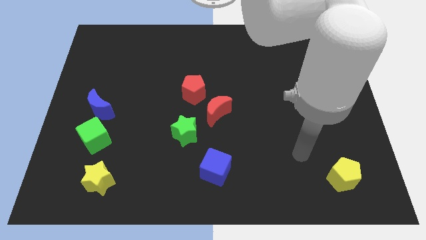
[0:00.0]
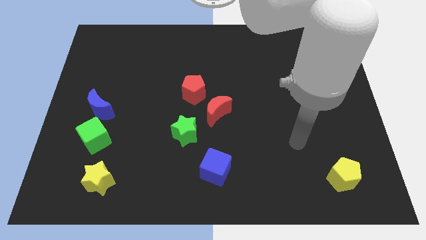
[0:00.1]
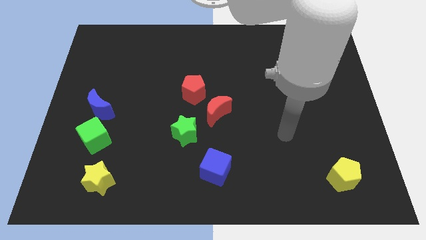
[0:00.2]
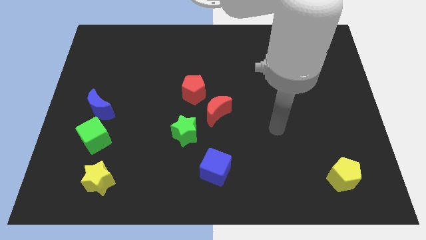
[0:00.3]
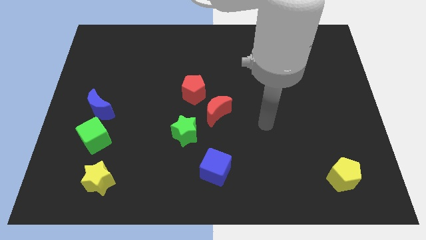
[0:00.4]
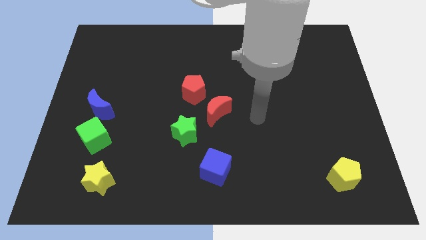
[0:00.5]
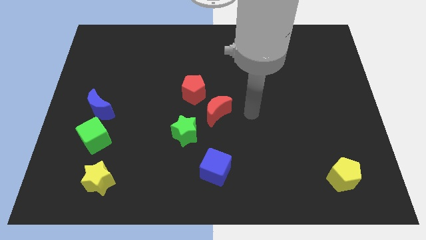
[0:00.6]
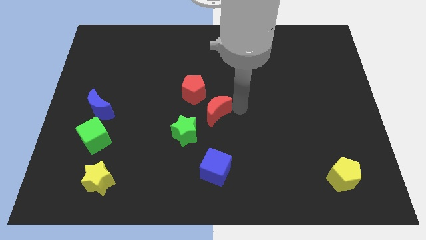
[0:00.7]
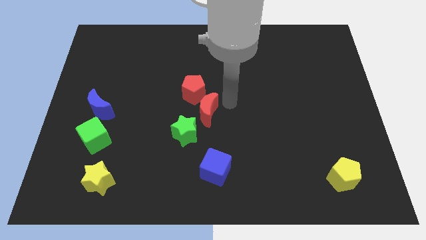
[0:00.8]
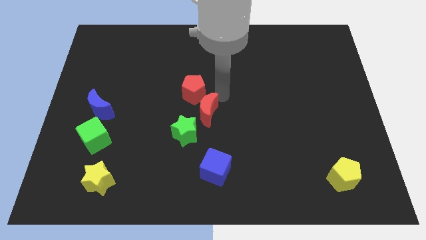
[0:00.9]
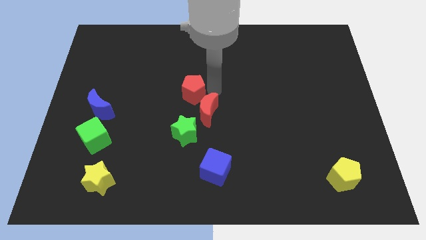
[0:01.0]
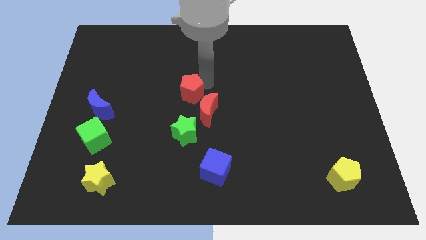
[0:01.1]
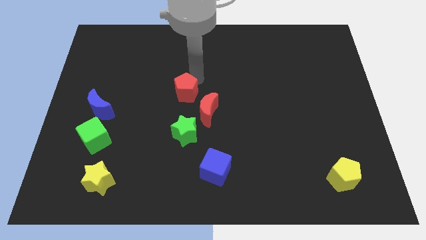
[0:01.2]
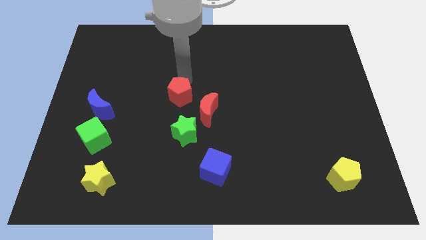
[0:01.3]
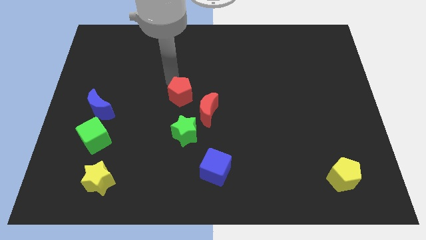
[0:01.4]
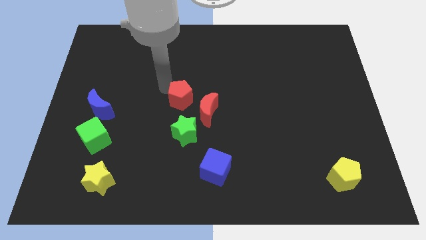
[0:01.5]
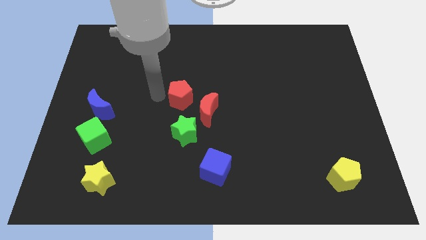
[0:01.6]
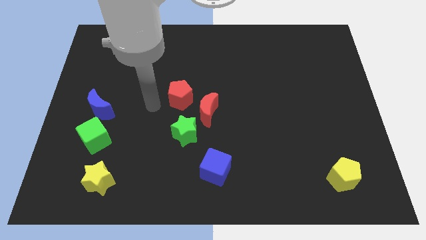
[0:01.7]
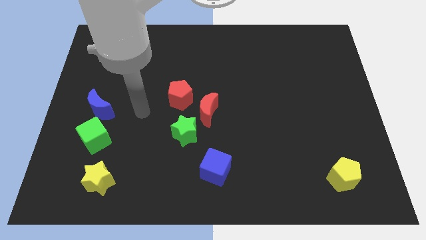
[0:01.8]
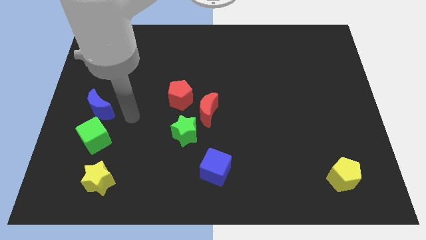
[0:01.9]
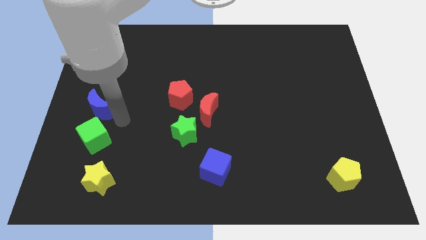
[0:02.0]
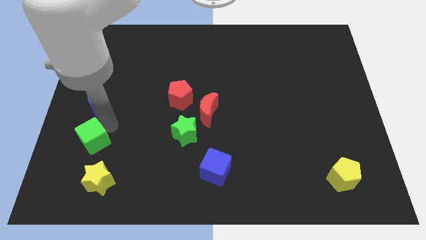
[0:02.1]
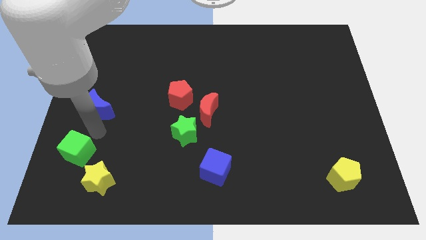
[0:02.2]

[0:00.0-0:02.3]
pull the blue moon apart from the green cube

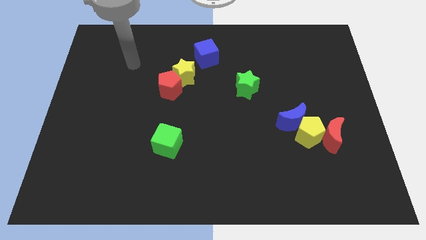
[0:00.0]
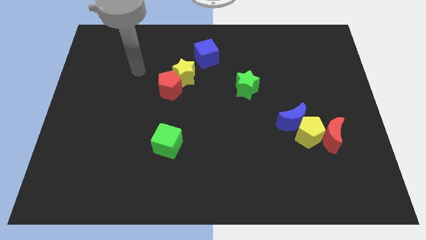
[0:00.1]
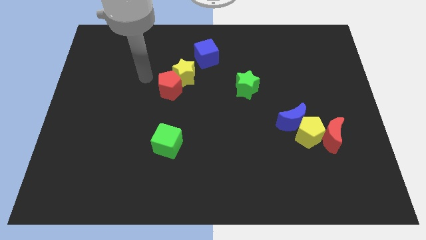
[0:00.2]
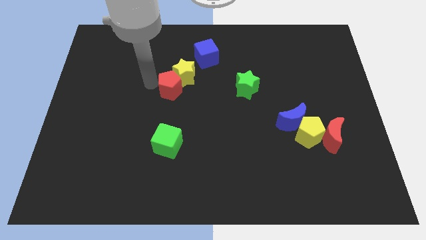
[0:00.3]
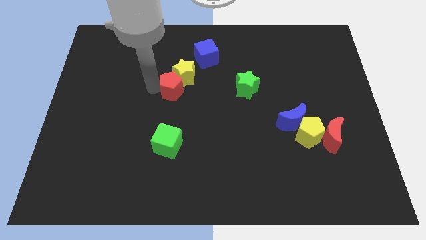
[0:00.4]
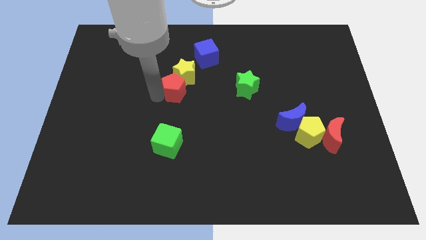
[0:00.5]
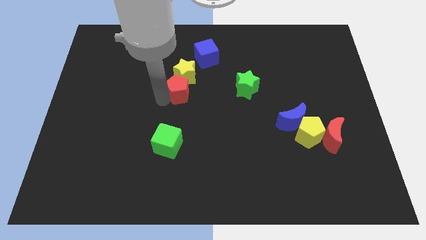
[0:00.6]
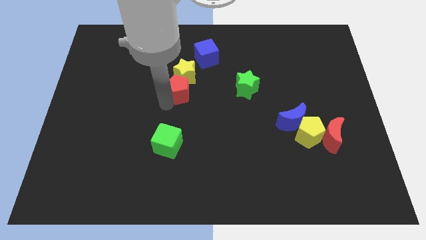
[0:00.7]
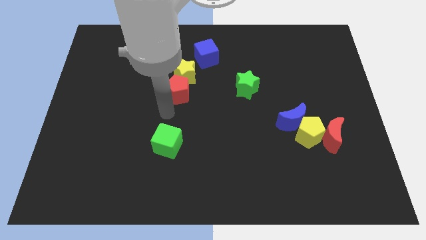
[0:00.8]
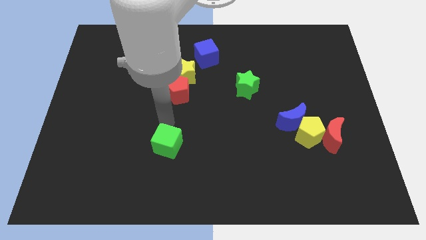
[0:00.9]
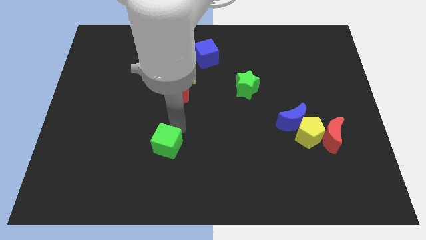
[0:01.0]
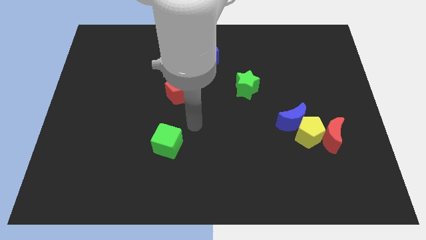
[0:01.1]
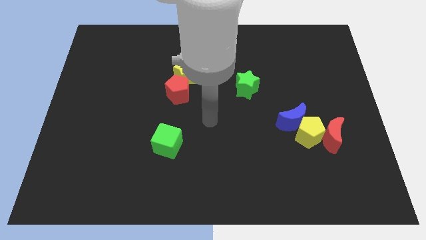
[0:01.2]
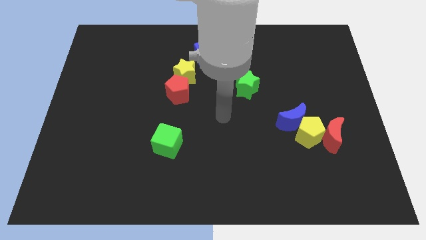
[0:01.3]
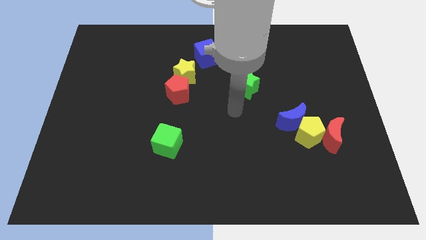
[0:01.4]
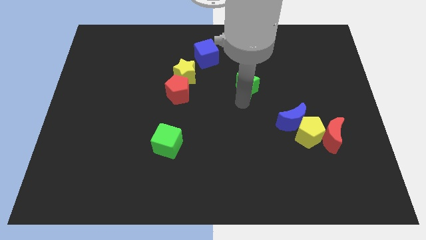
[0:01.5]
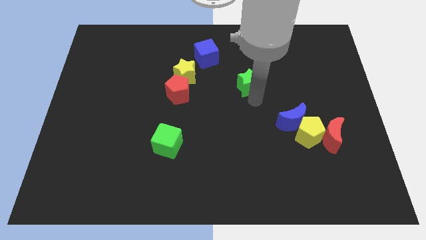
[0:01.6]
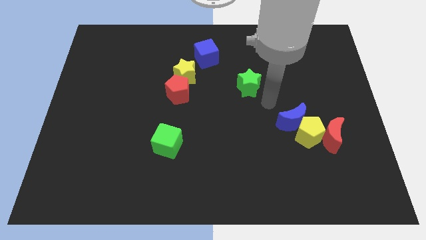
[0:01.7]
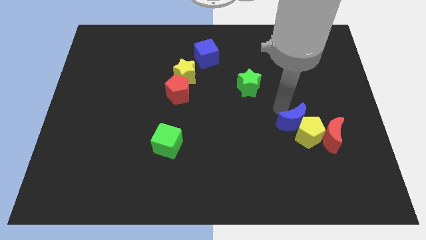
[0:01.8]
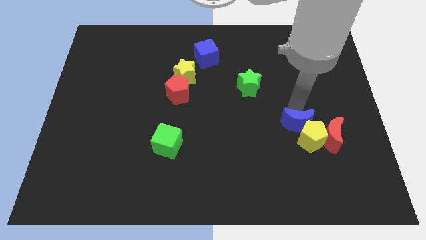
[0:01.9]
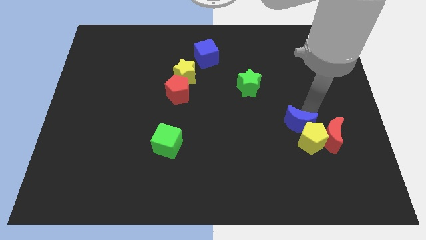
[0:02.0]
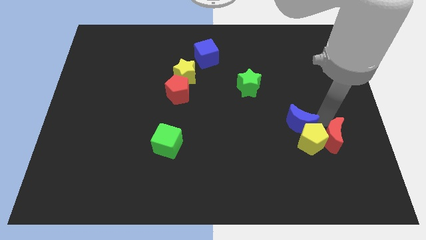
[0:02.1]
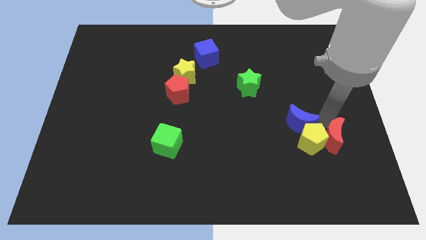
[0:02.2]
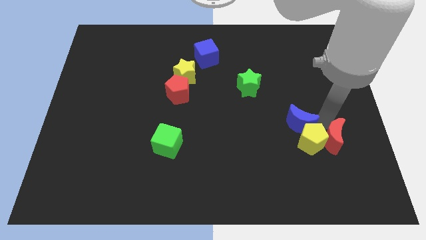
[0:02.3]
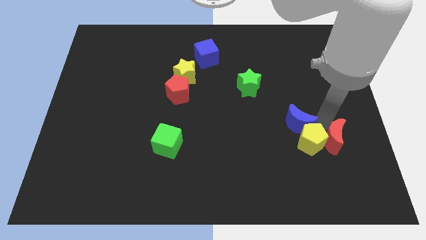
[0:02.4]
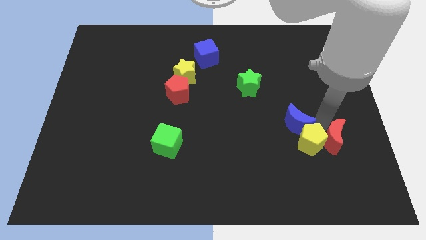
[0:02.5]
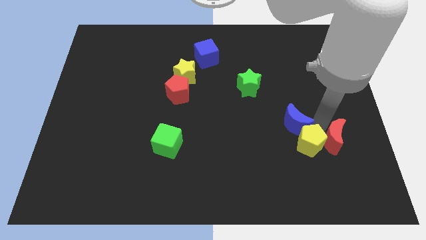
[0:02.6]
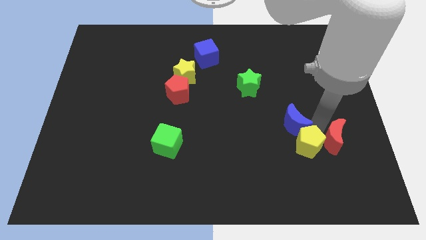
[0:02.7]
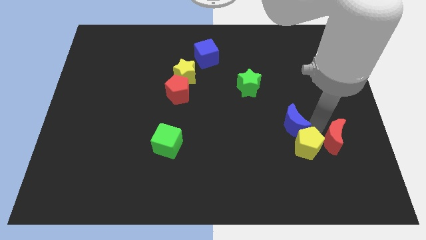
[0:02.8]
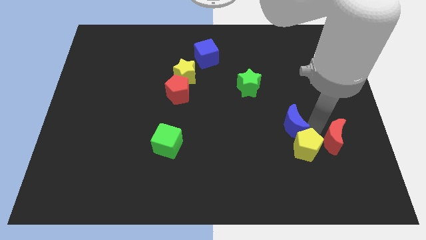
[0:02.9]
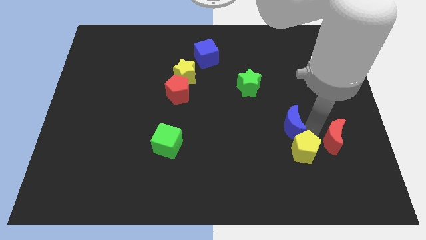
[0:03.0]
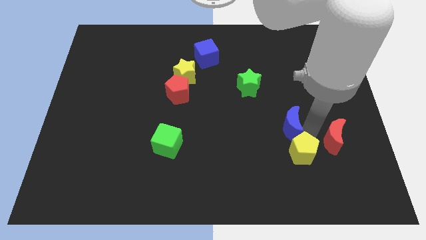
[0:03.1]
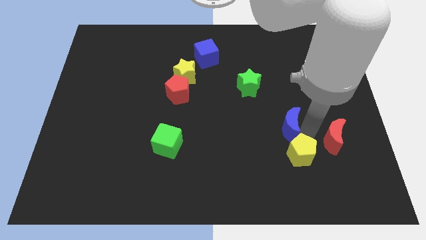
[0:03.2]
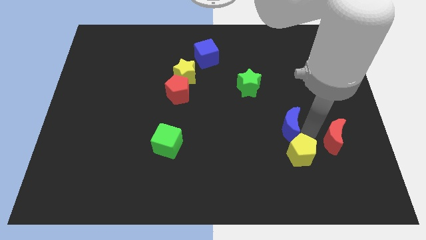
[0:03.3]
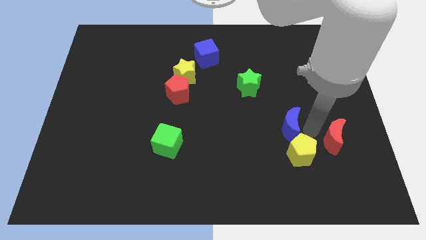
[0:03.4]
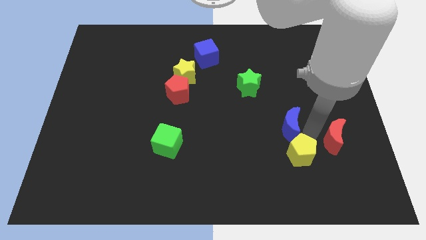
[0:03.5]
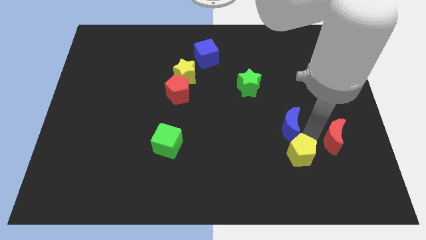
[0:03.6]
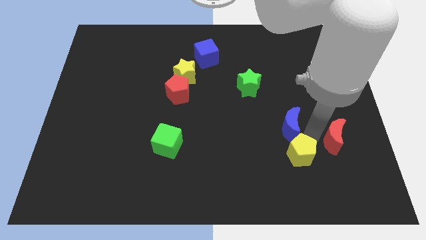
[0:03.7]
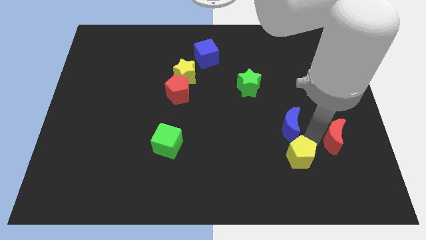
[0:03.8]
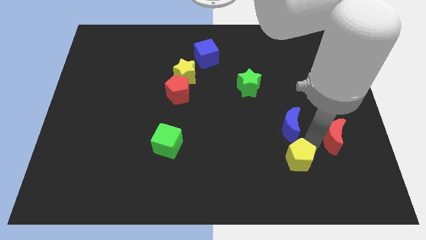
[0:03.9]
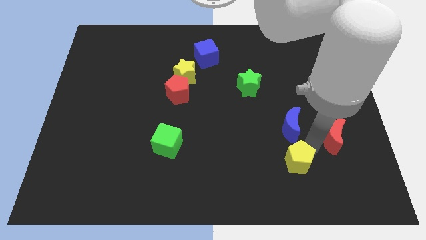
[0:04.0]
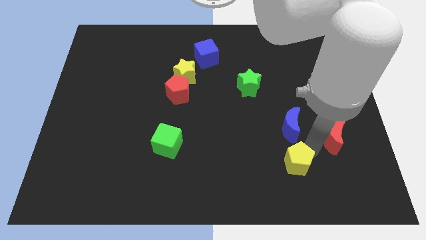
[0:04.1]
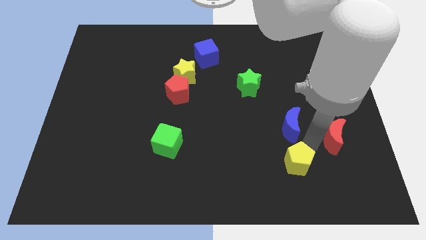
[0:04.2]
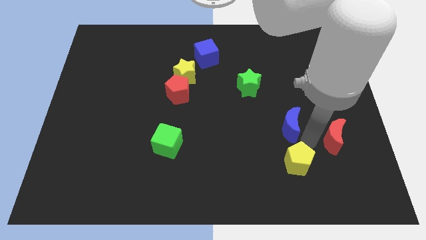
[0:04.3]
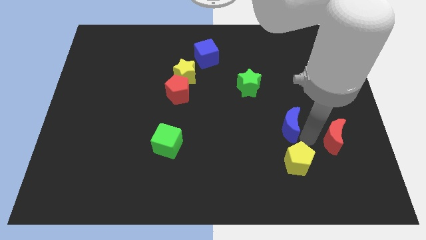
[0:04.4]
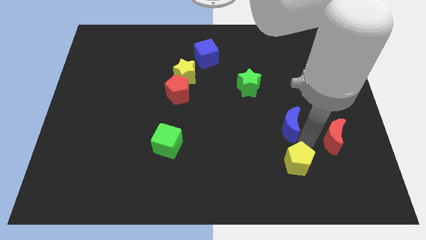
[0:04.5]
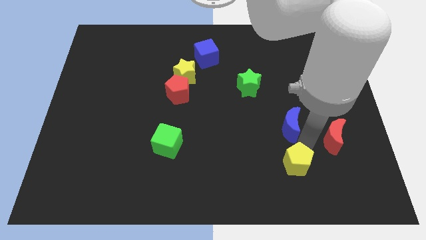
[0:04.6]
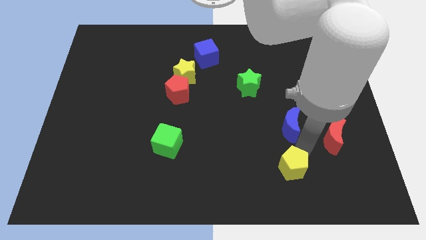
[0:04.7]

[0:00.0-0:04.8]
pull the yellow pentagon apart from the red moon and blue moon

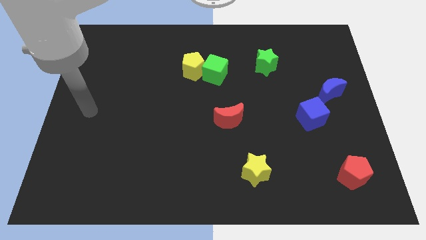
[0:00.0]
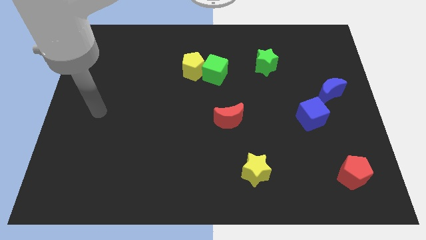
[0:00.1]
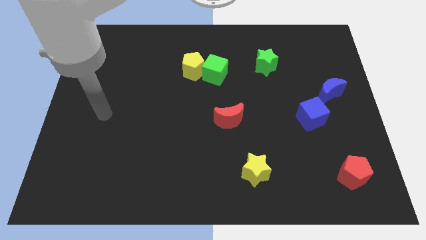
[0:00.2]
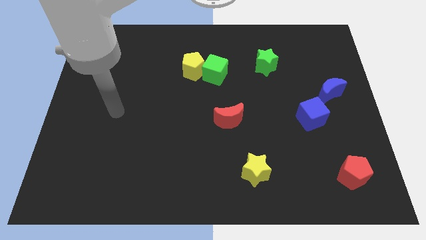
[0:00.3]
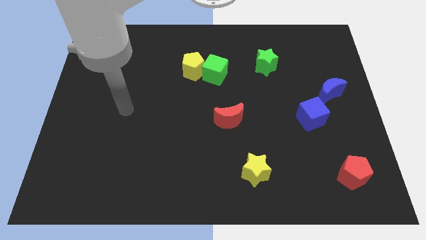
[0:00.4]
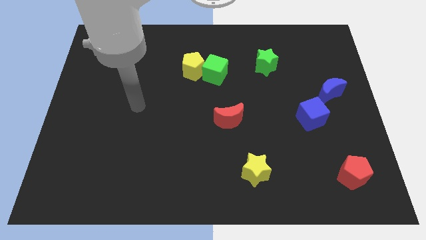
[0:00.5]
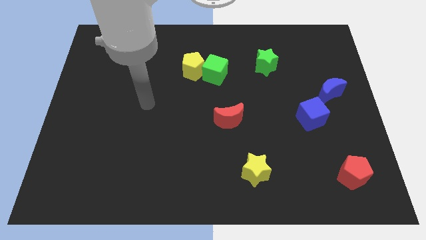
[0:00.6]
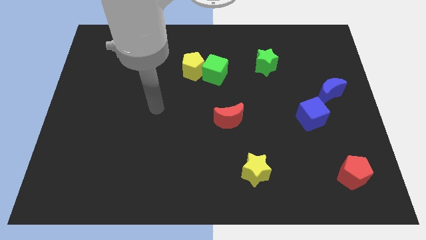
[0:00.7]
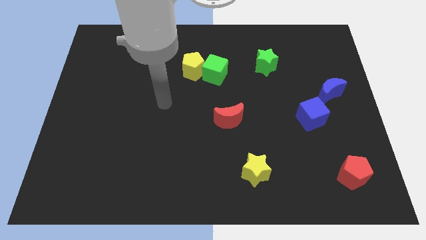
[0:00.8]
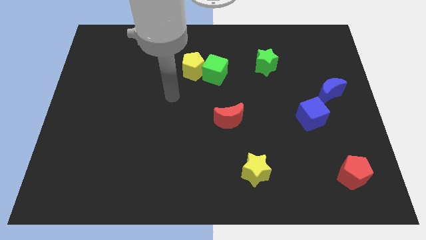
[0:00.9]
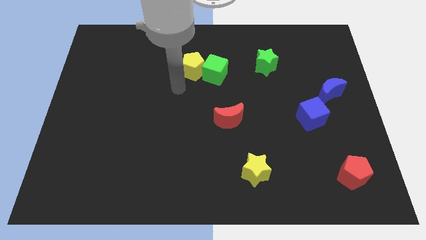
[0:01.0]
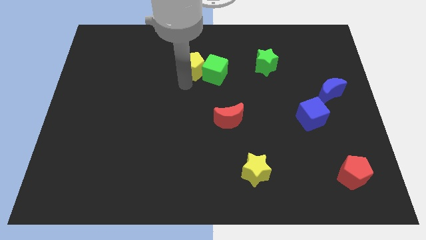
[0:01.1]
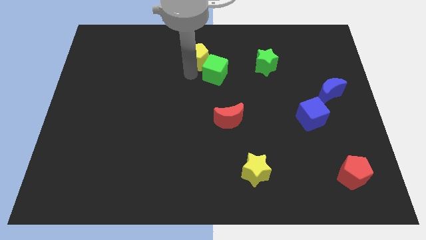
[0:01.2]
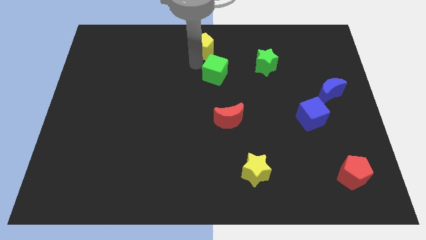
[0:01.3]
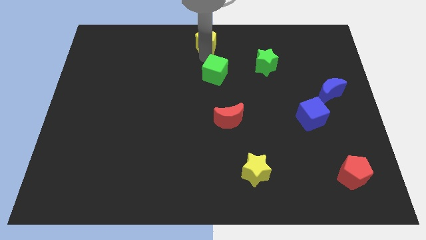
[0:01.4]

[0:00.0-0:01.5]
move the green cube away from the yellow pentagon

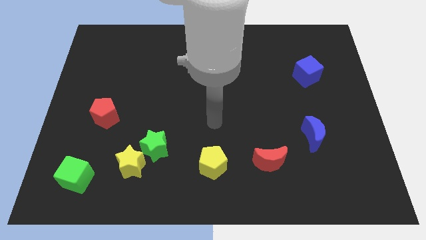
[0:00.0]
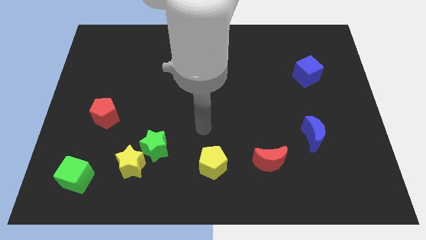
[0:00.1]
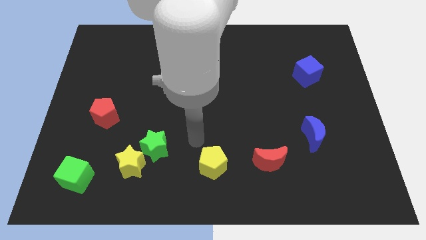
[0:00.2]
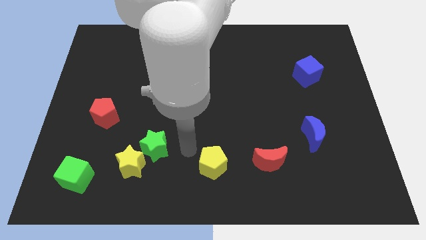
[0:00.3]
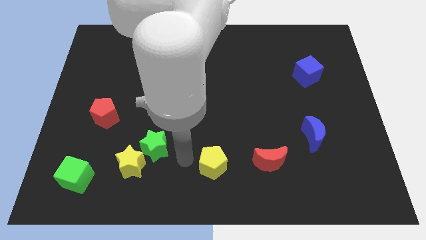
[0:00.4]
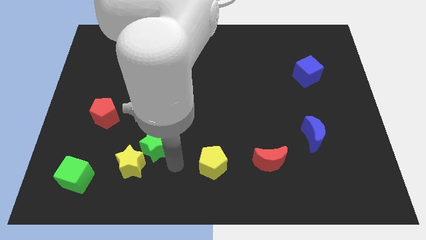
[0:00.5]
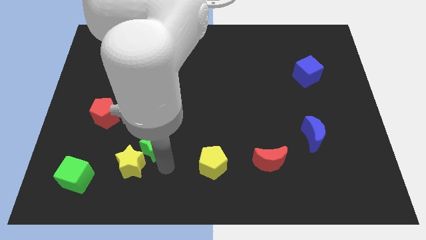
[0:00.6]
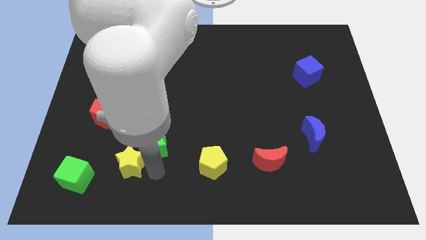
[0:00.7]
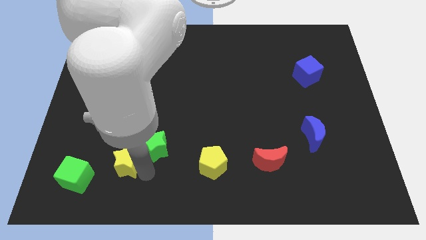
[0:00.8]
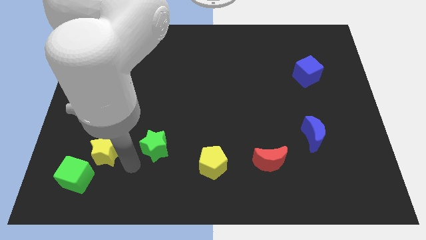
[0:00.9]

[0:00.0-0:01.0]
move the green star away from the yellow star
